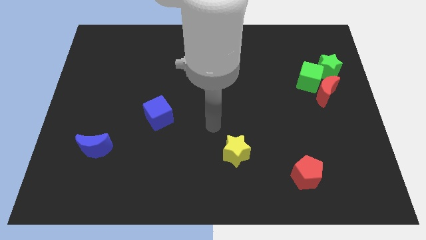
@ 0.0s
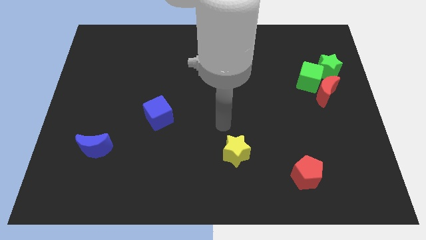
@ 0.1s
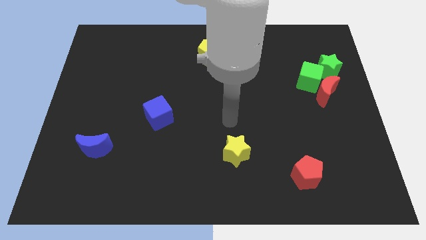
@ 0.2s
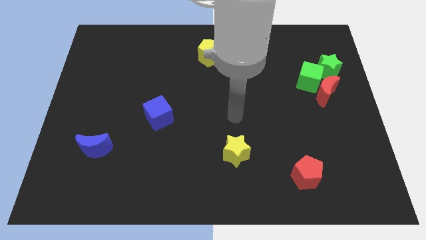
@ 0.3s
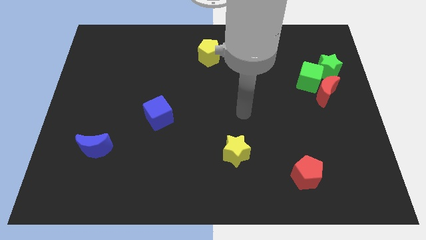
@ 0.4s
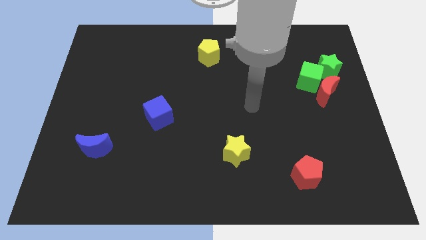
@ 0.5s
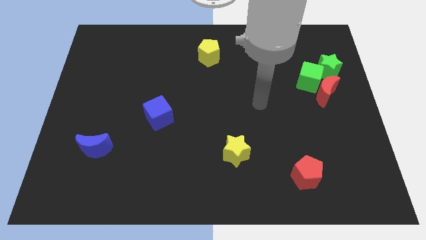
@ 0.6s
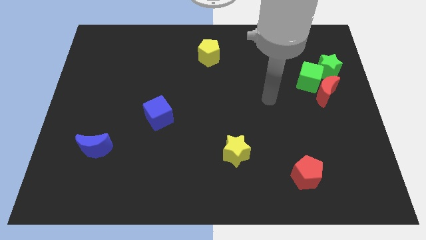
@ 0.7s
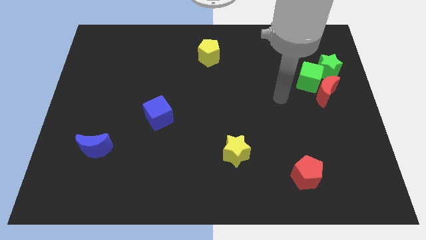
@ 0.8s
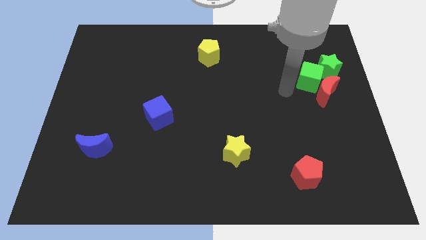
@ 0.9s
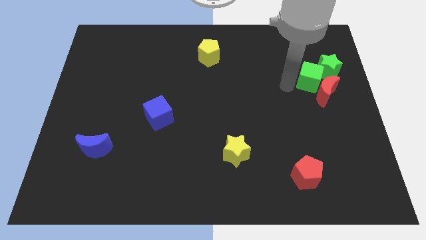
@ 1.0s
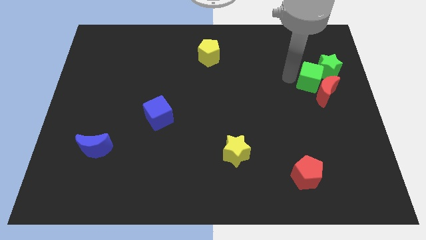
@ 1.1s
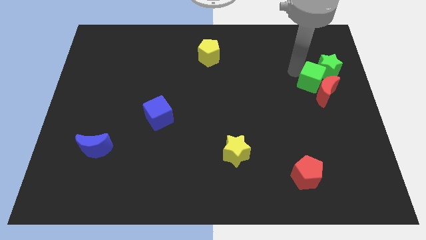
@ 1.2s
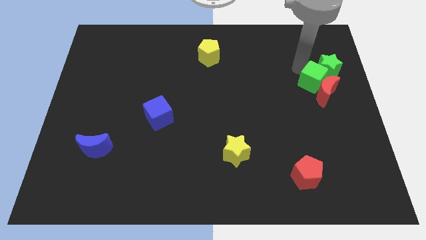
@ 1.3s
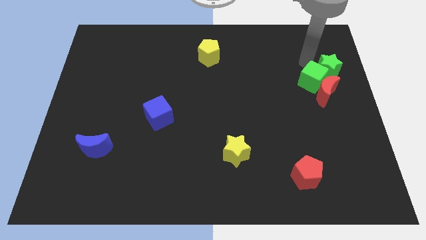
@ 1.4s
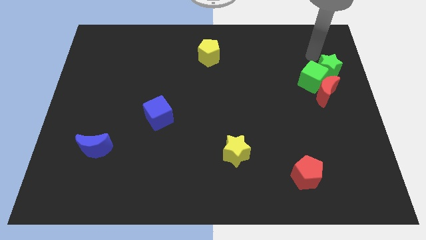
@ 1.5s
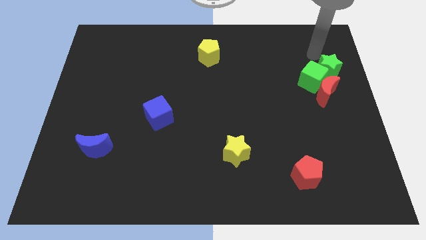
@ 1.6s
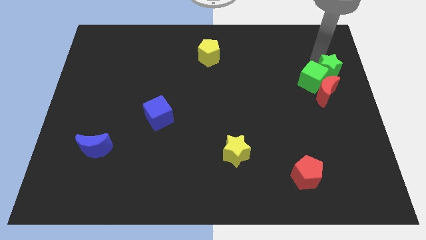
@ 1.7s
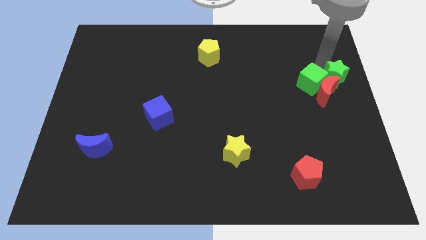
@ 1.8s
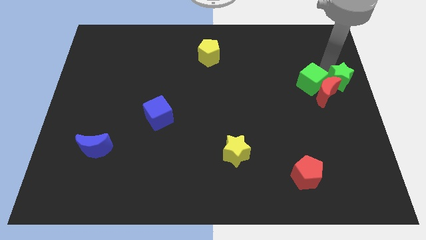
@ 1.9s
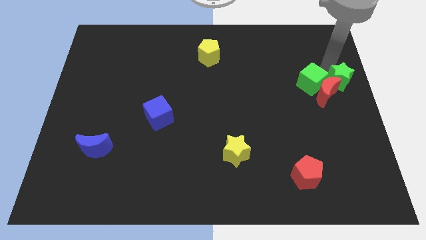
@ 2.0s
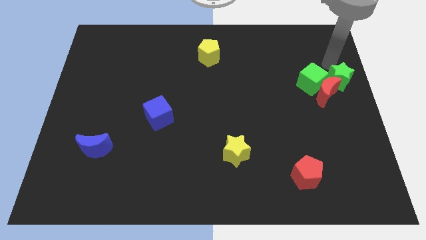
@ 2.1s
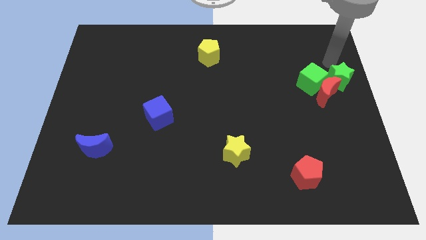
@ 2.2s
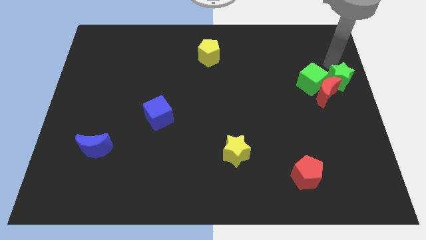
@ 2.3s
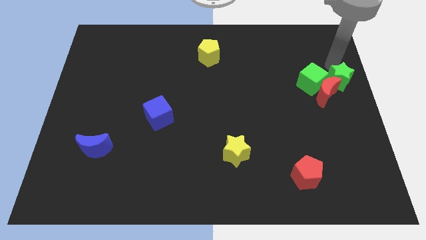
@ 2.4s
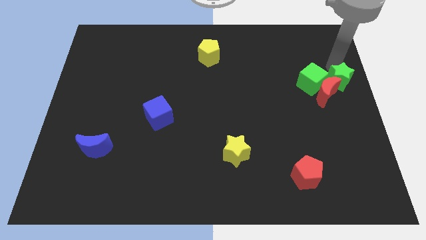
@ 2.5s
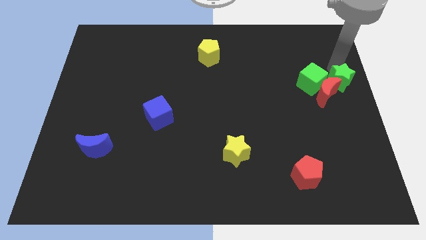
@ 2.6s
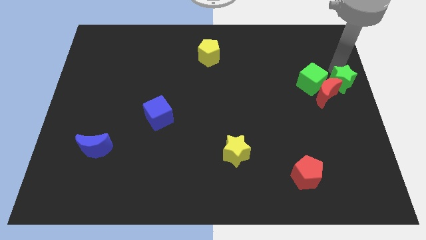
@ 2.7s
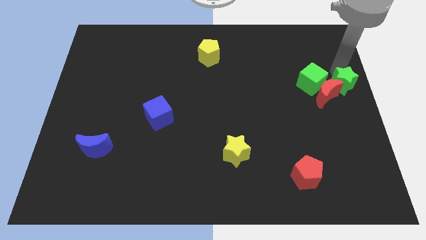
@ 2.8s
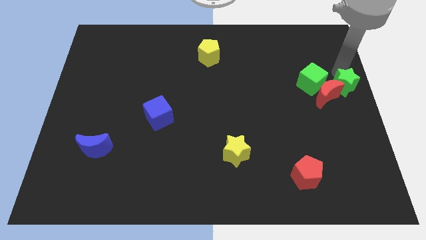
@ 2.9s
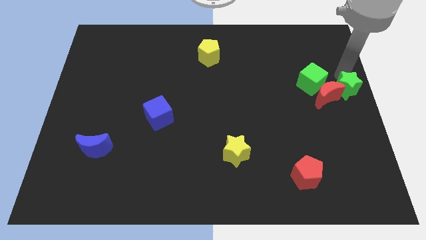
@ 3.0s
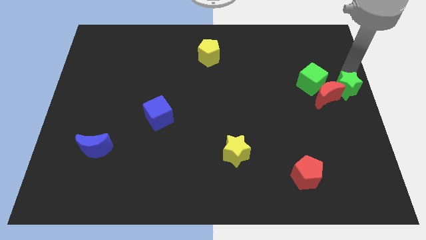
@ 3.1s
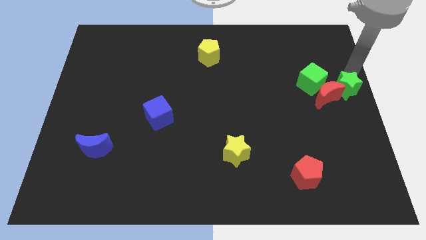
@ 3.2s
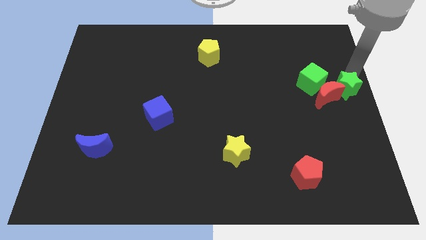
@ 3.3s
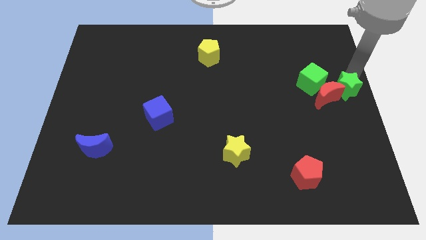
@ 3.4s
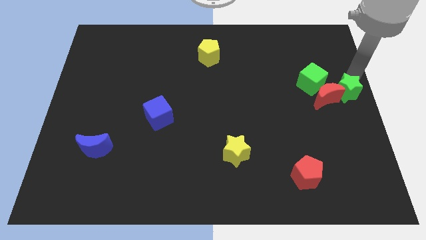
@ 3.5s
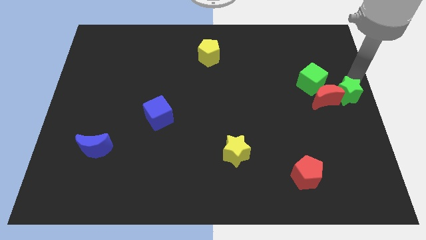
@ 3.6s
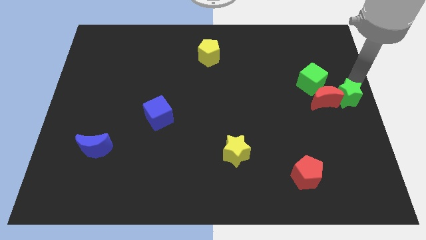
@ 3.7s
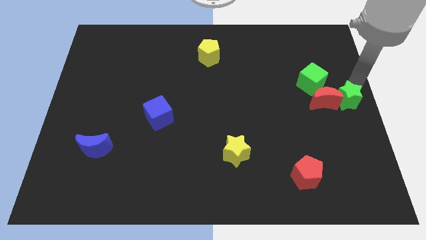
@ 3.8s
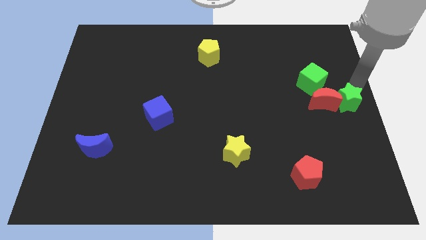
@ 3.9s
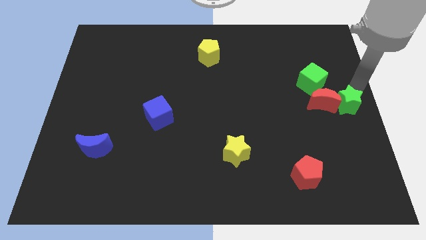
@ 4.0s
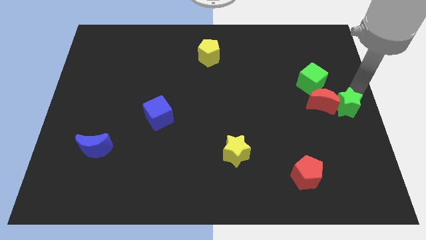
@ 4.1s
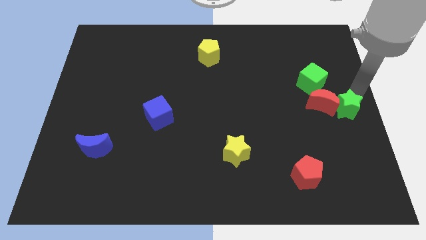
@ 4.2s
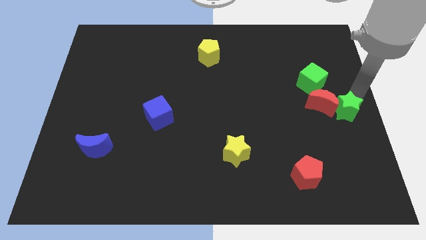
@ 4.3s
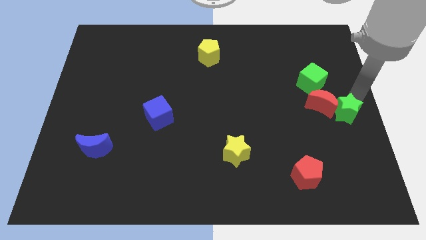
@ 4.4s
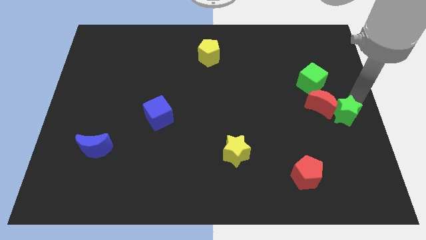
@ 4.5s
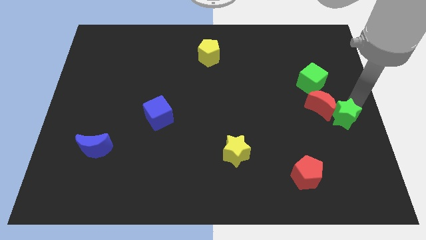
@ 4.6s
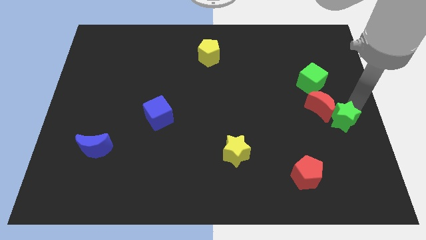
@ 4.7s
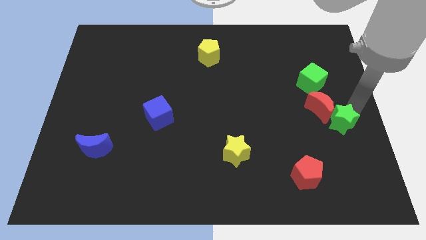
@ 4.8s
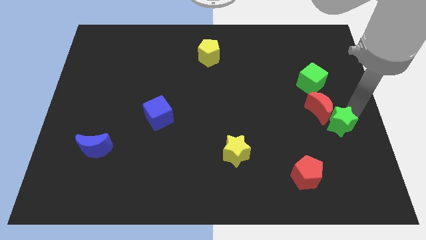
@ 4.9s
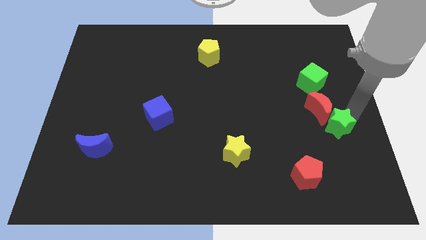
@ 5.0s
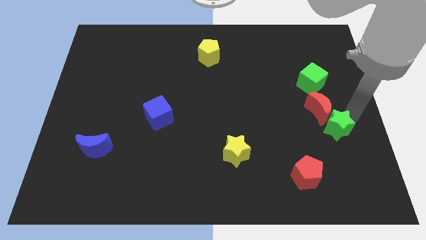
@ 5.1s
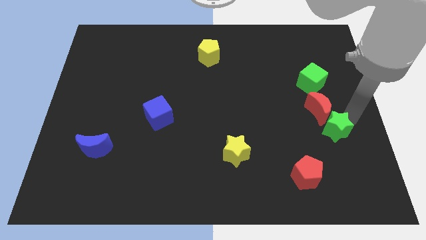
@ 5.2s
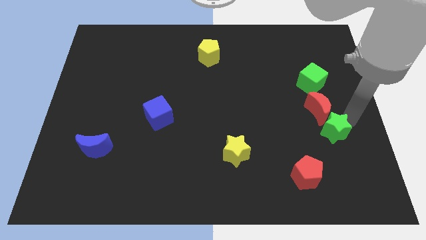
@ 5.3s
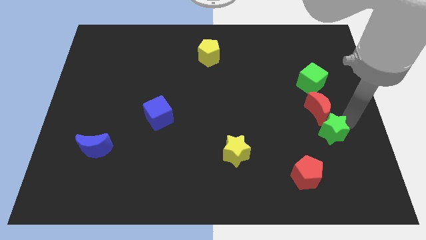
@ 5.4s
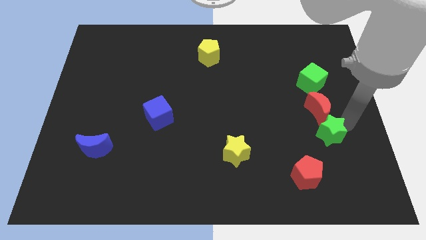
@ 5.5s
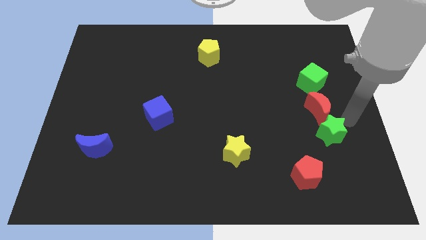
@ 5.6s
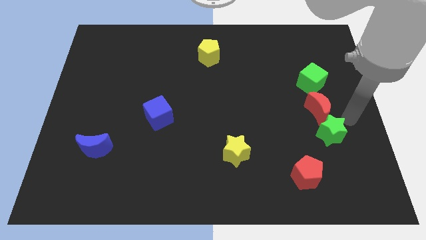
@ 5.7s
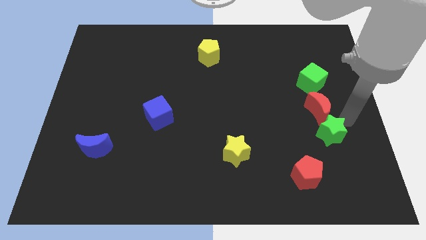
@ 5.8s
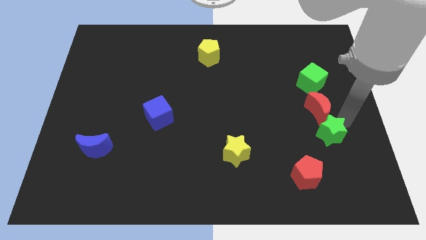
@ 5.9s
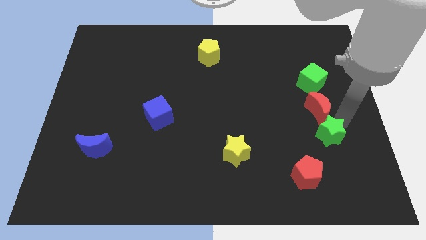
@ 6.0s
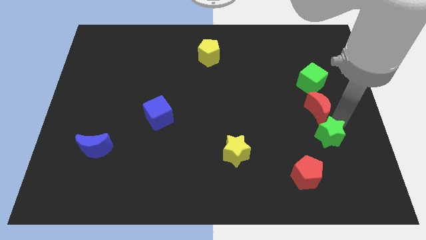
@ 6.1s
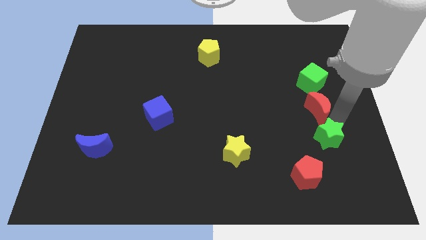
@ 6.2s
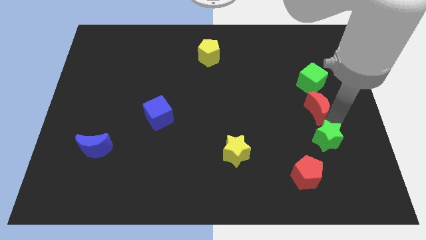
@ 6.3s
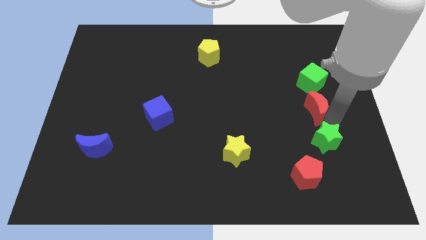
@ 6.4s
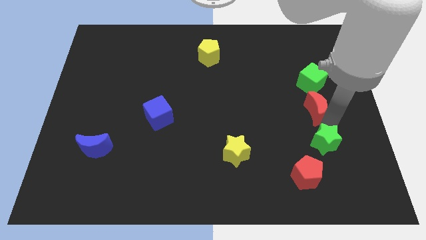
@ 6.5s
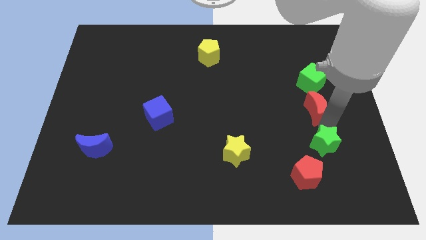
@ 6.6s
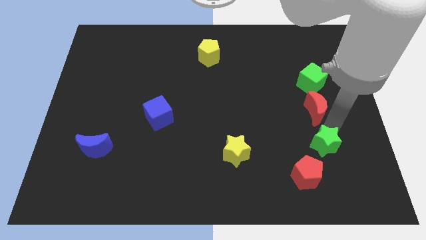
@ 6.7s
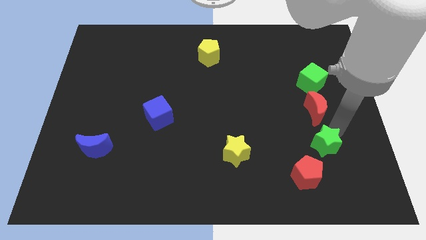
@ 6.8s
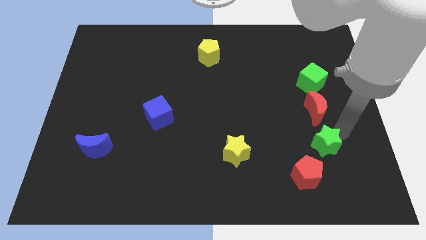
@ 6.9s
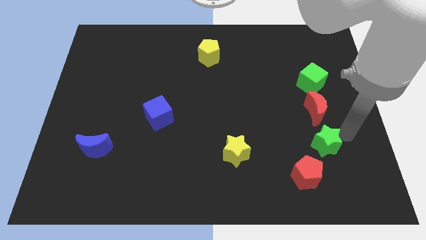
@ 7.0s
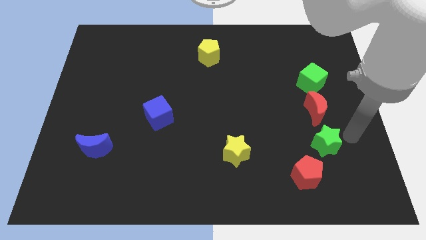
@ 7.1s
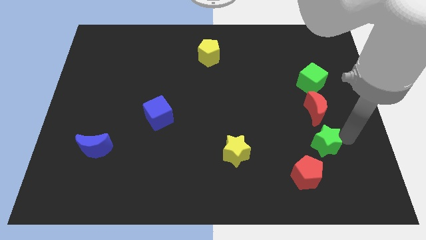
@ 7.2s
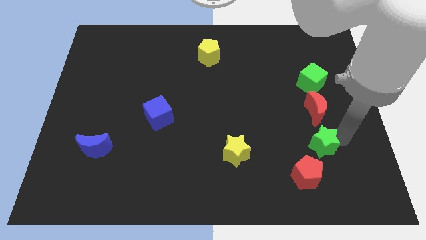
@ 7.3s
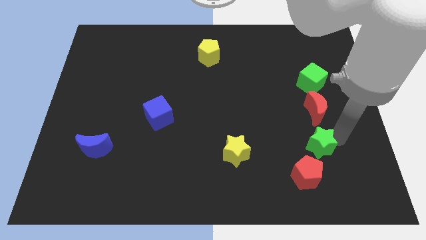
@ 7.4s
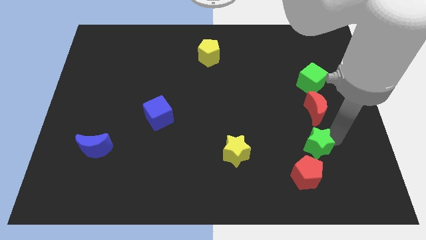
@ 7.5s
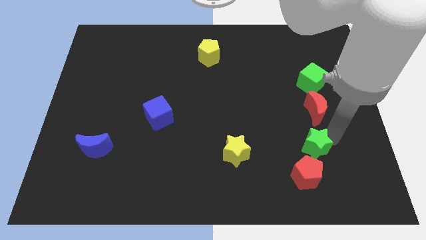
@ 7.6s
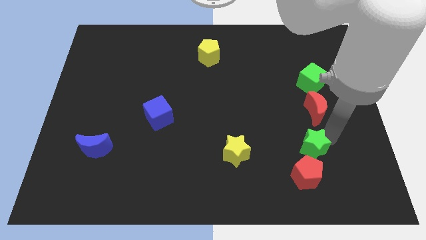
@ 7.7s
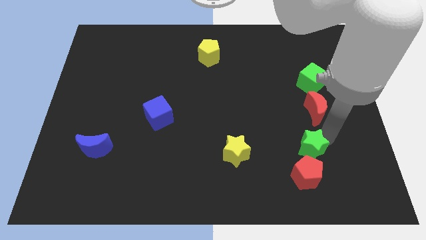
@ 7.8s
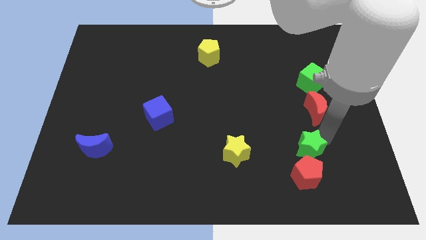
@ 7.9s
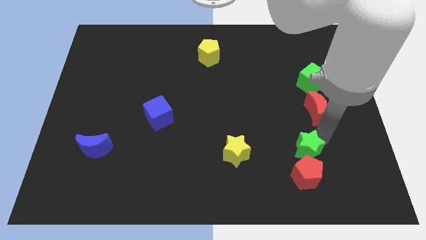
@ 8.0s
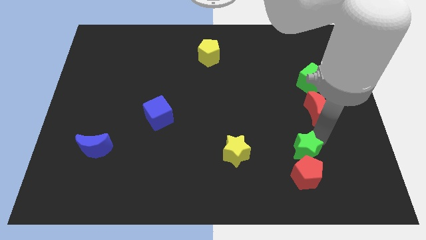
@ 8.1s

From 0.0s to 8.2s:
slide the green star next to the red pentagon
